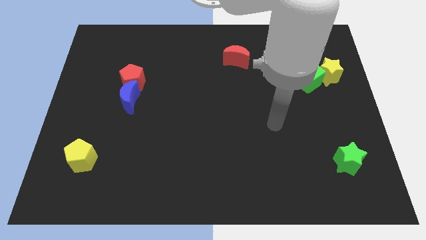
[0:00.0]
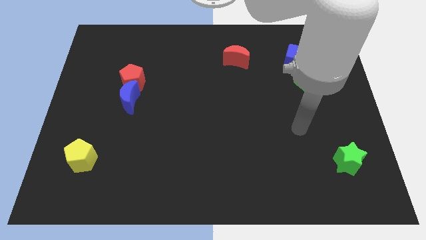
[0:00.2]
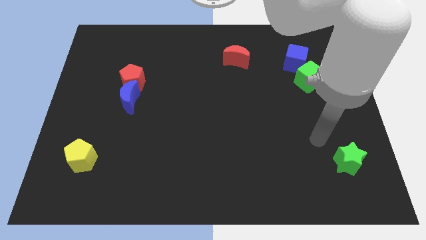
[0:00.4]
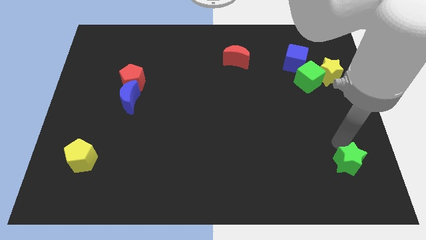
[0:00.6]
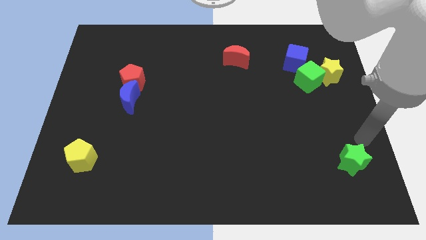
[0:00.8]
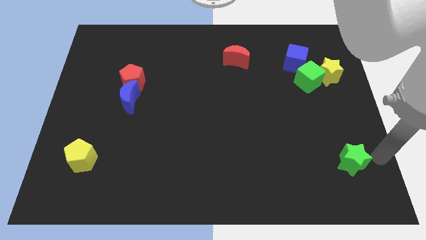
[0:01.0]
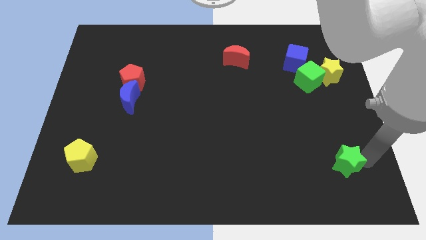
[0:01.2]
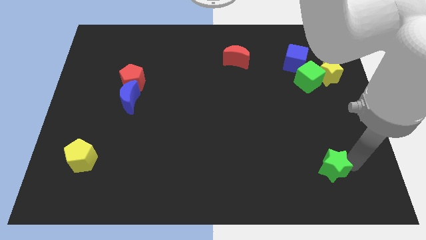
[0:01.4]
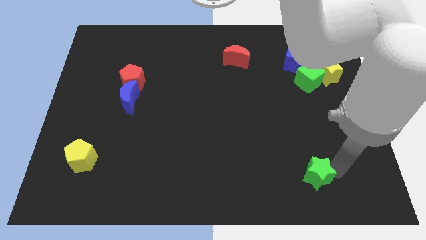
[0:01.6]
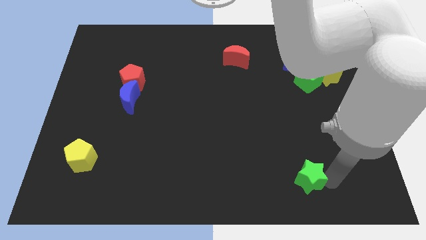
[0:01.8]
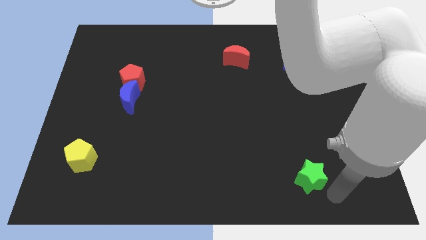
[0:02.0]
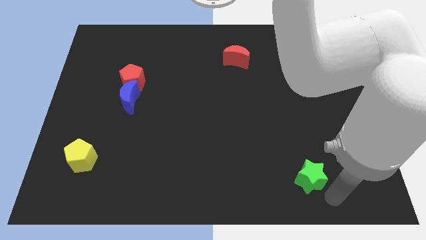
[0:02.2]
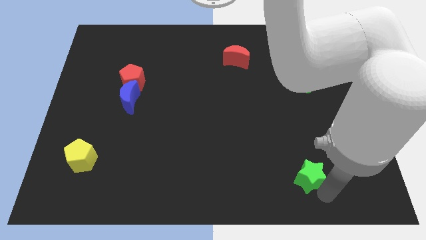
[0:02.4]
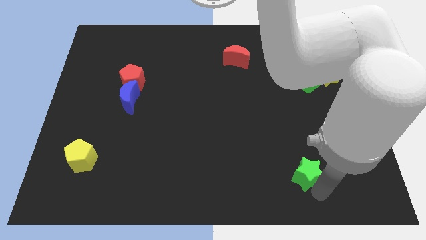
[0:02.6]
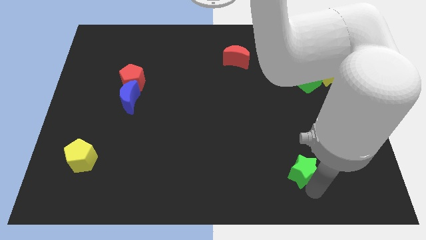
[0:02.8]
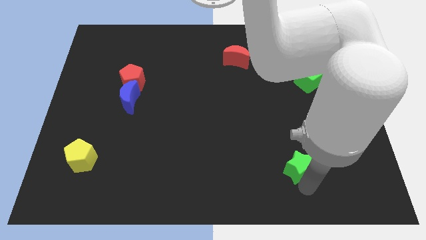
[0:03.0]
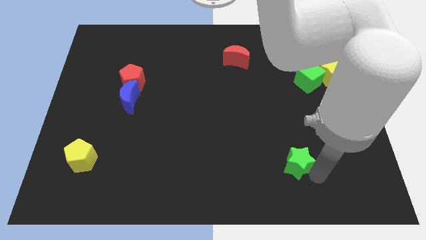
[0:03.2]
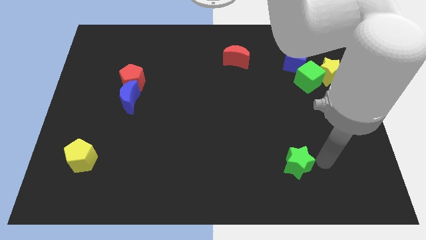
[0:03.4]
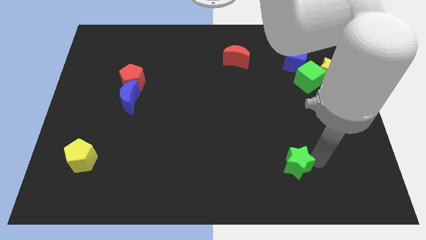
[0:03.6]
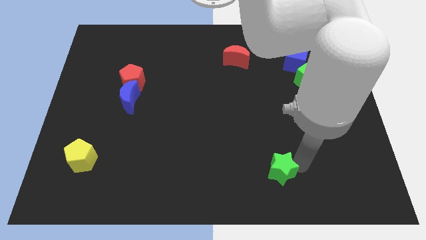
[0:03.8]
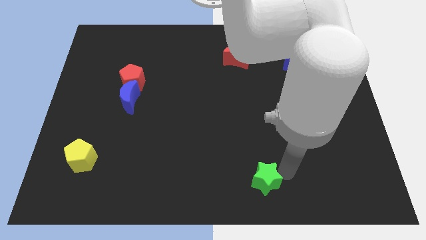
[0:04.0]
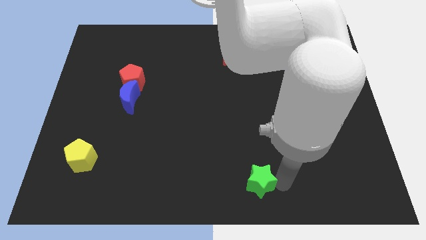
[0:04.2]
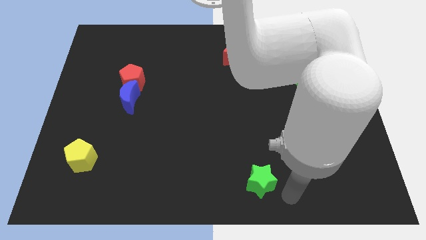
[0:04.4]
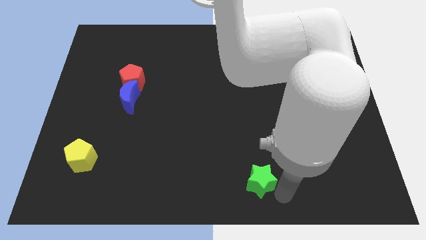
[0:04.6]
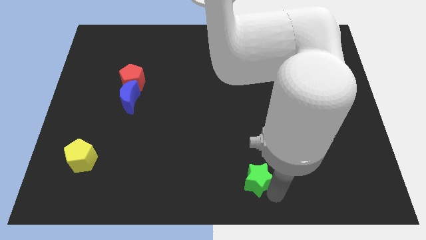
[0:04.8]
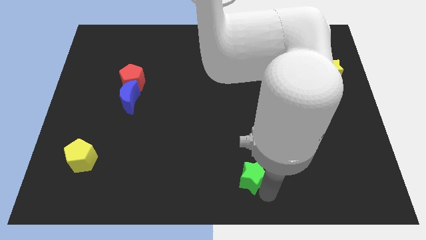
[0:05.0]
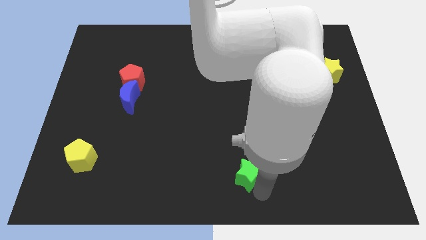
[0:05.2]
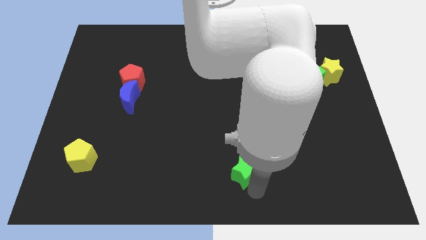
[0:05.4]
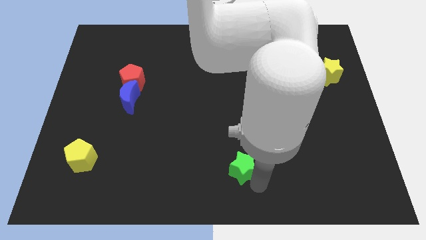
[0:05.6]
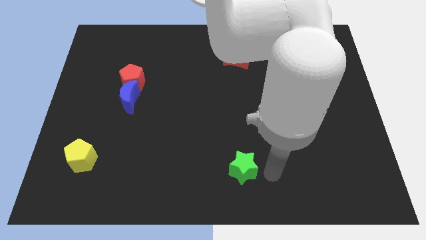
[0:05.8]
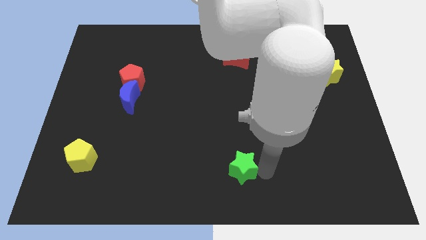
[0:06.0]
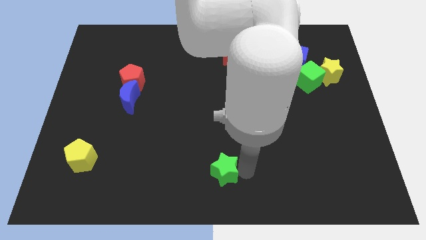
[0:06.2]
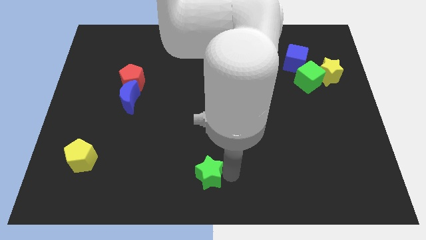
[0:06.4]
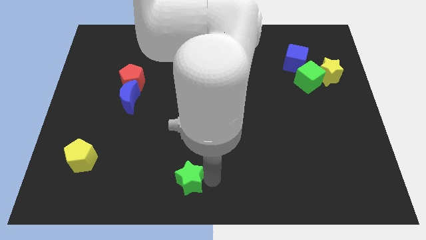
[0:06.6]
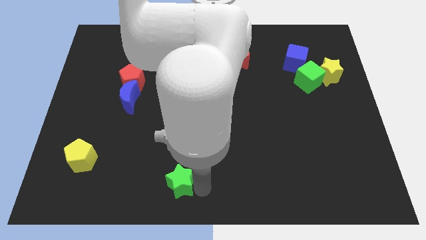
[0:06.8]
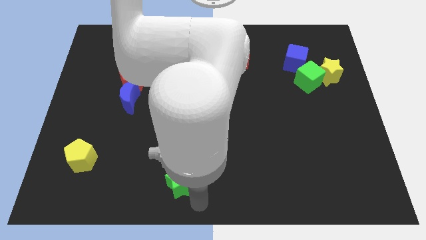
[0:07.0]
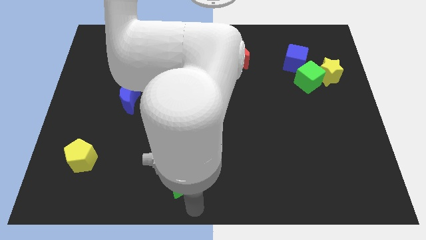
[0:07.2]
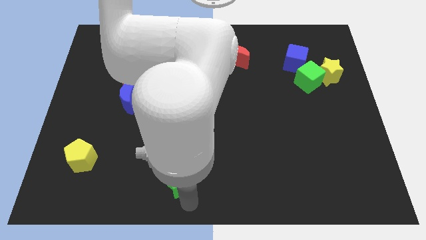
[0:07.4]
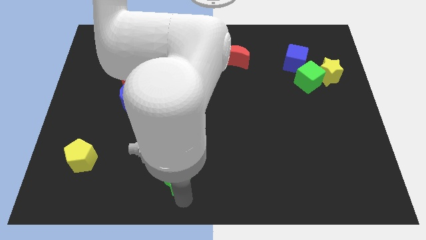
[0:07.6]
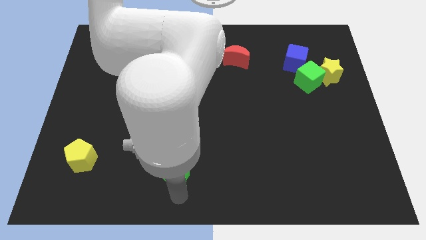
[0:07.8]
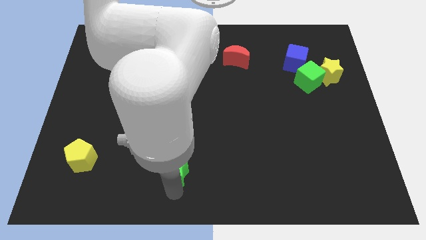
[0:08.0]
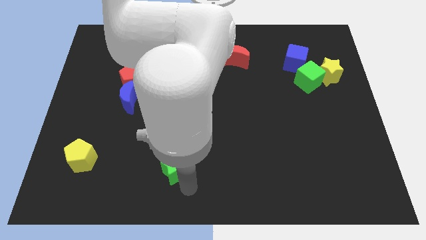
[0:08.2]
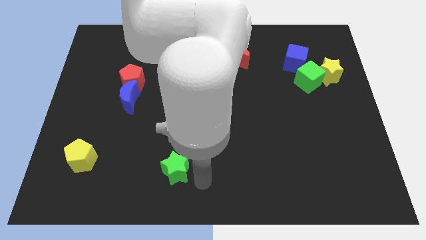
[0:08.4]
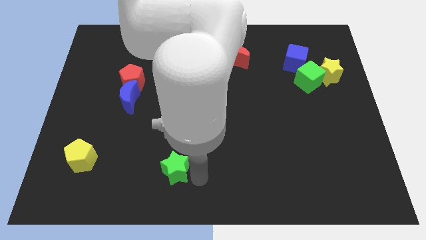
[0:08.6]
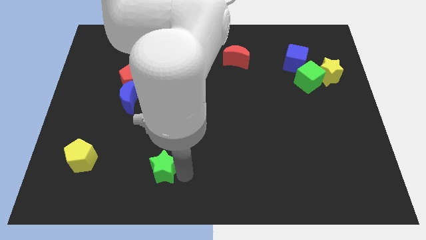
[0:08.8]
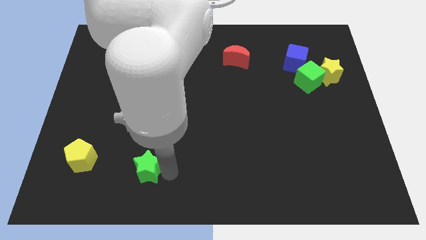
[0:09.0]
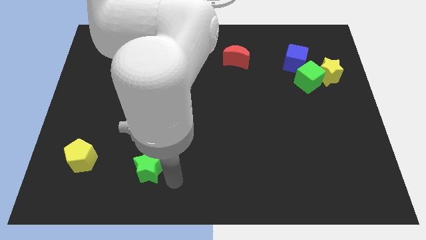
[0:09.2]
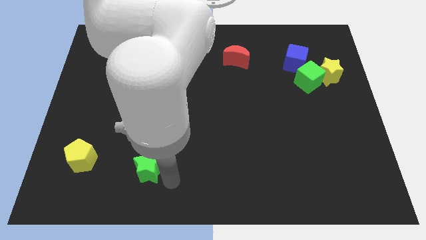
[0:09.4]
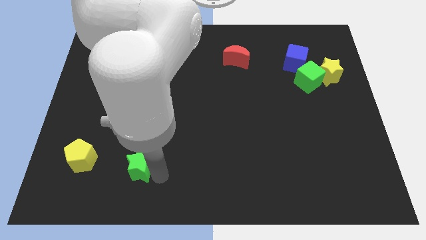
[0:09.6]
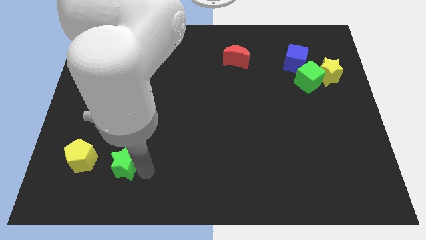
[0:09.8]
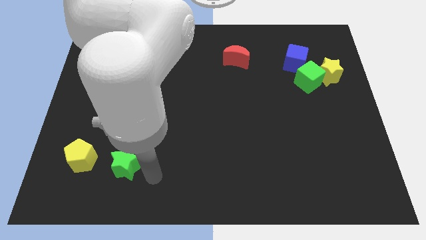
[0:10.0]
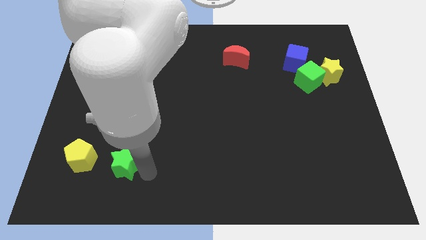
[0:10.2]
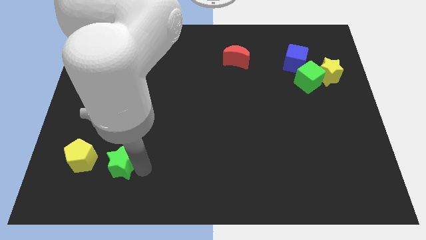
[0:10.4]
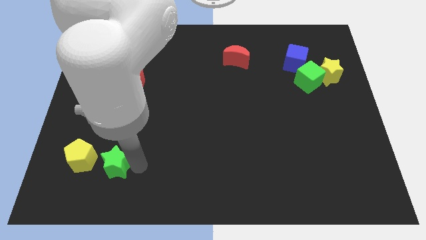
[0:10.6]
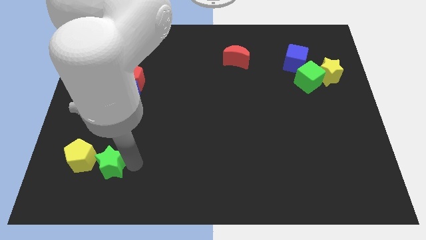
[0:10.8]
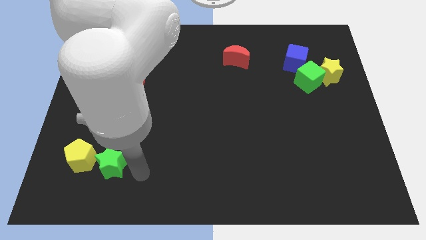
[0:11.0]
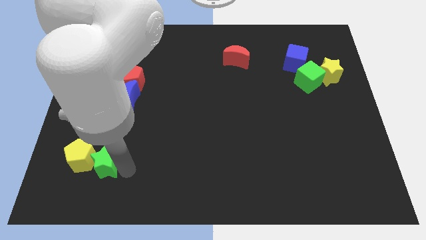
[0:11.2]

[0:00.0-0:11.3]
push the green star to the yellow pentagon

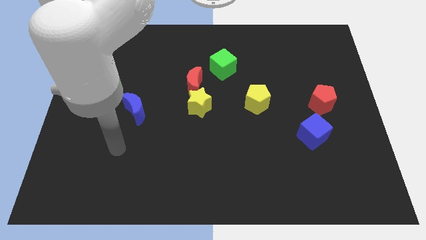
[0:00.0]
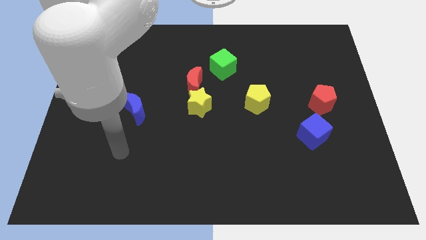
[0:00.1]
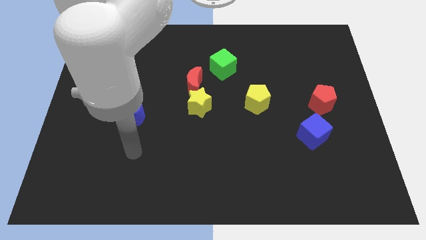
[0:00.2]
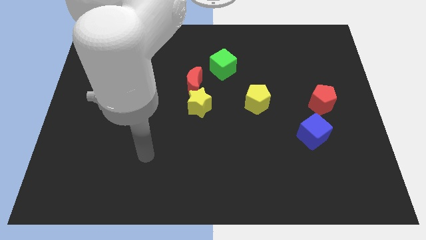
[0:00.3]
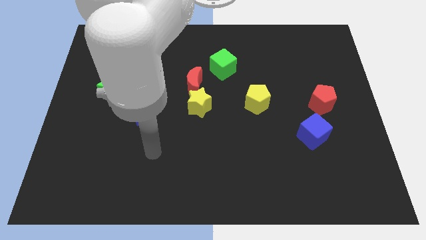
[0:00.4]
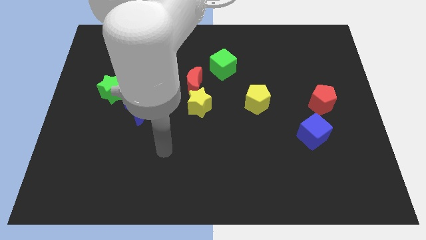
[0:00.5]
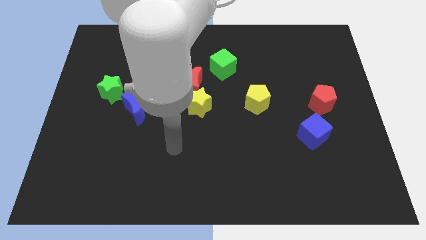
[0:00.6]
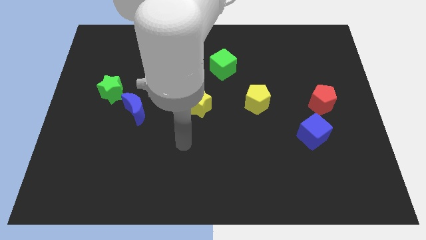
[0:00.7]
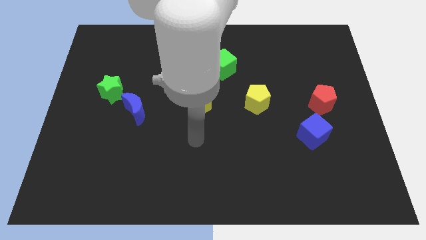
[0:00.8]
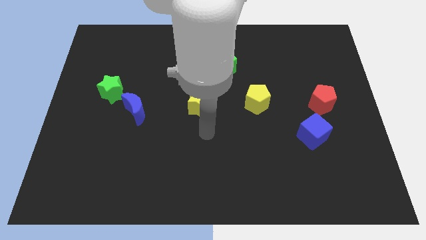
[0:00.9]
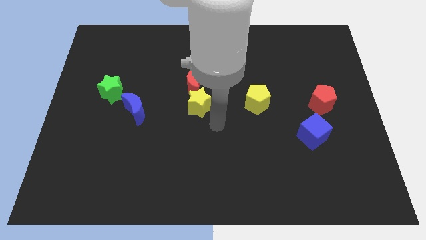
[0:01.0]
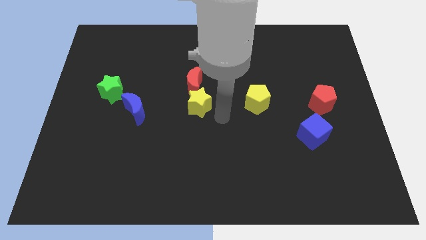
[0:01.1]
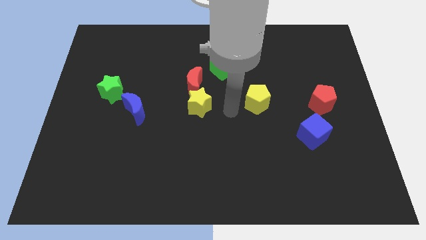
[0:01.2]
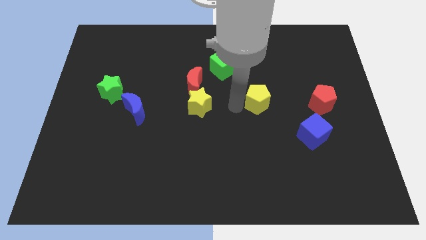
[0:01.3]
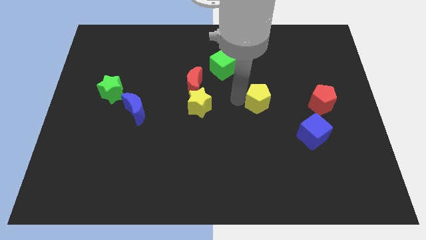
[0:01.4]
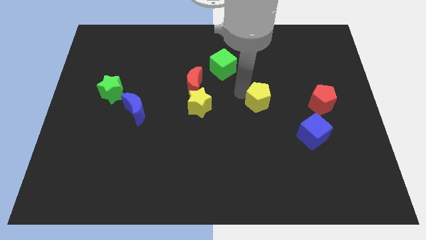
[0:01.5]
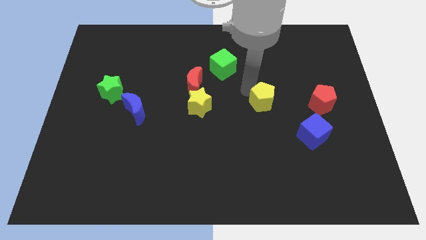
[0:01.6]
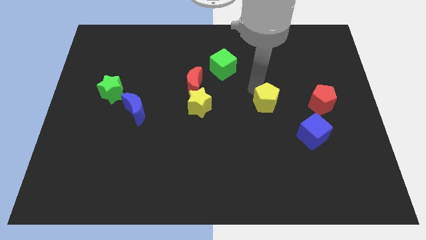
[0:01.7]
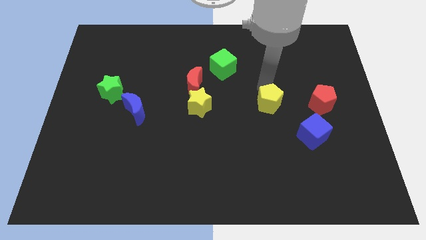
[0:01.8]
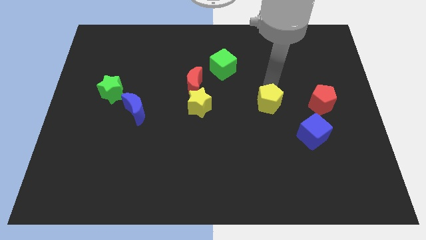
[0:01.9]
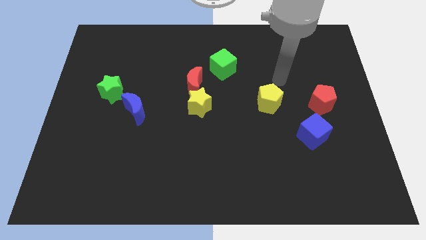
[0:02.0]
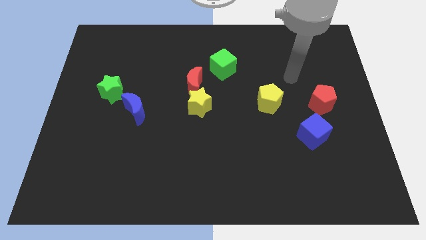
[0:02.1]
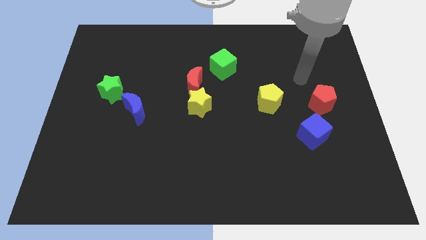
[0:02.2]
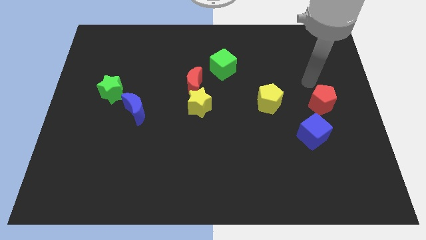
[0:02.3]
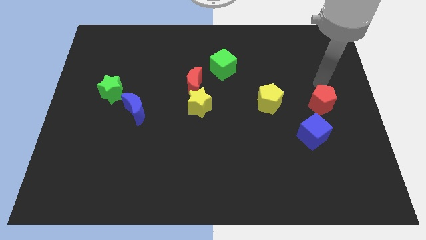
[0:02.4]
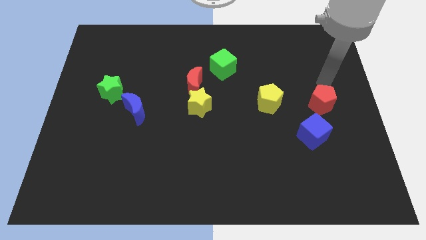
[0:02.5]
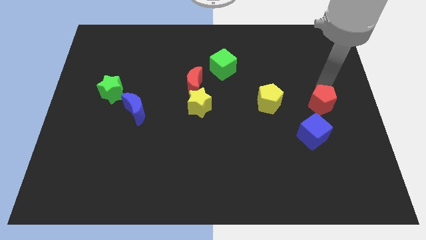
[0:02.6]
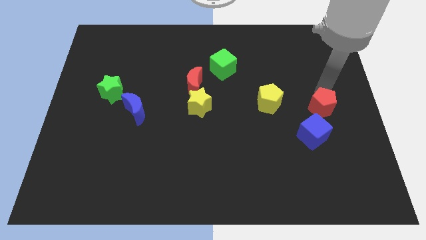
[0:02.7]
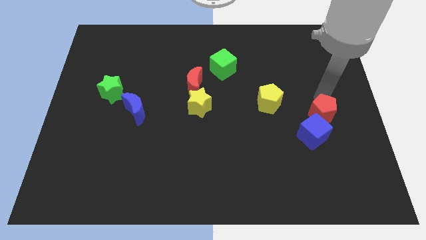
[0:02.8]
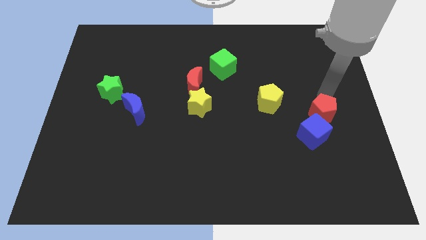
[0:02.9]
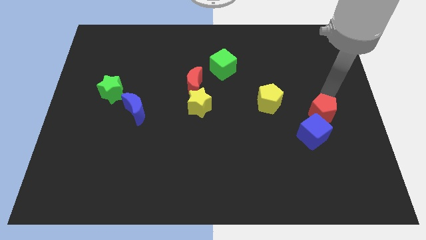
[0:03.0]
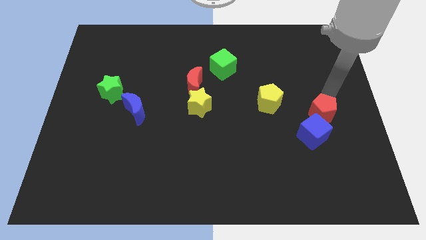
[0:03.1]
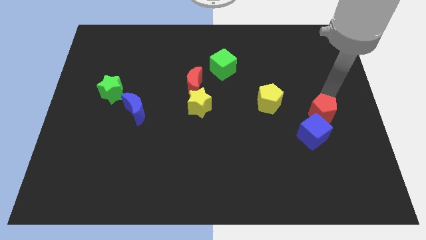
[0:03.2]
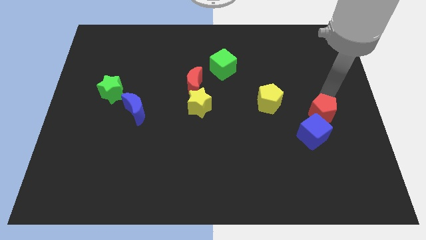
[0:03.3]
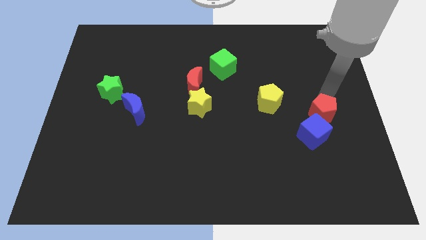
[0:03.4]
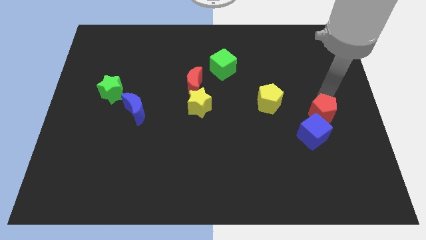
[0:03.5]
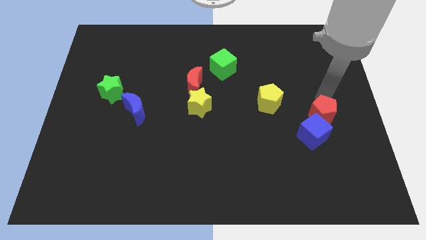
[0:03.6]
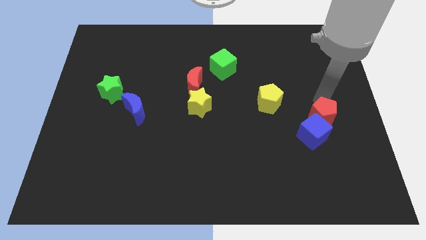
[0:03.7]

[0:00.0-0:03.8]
push the red pentagon next to the blue cube
